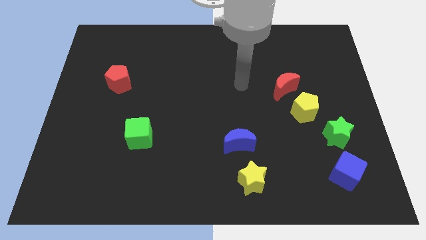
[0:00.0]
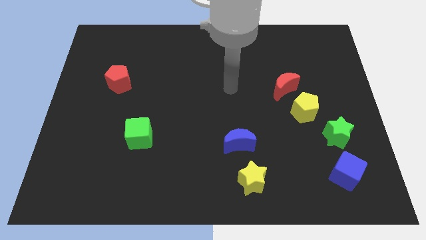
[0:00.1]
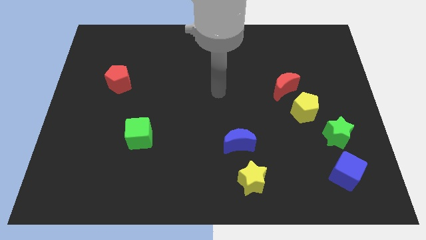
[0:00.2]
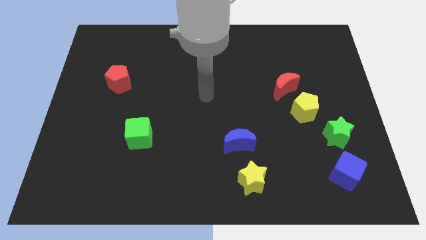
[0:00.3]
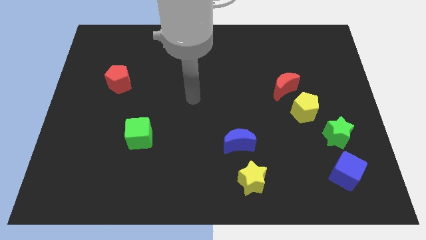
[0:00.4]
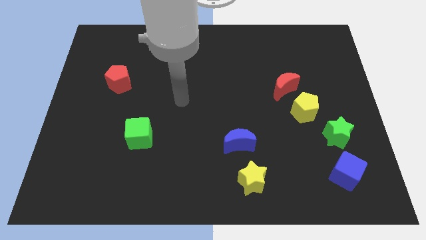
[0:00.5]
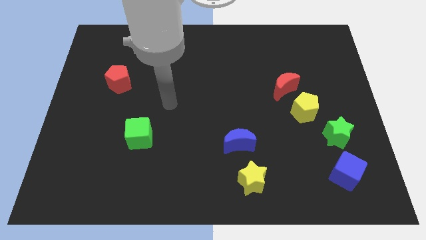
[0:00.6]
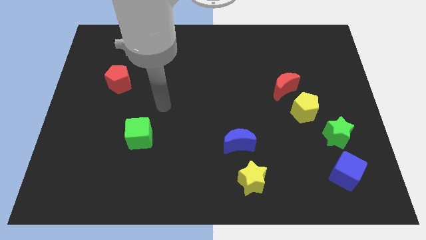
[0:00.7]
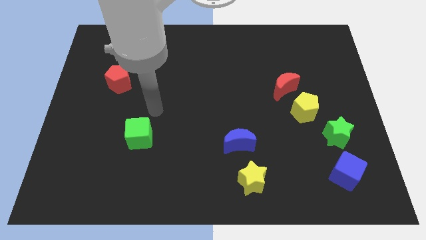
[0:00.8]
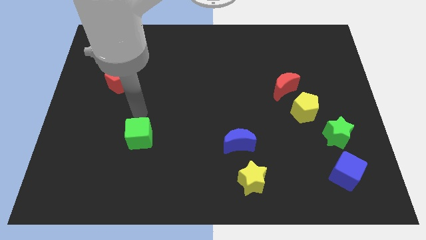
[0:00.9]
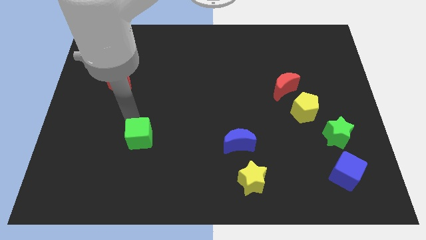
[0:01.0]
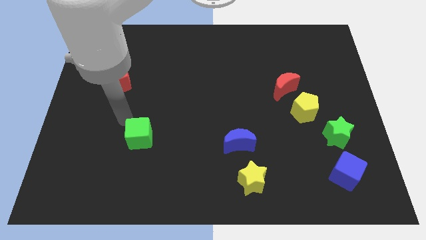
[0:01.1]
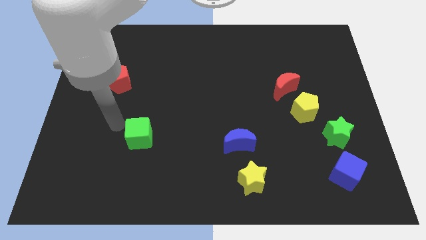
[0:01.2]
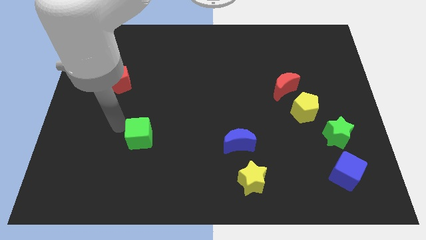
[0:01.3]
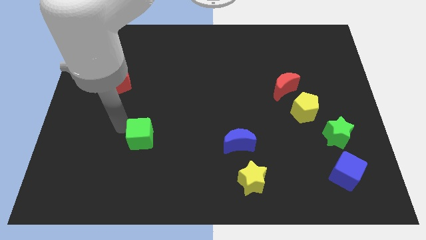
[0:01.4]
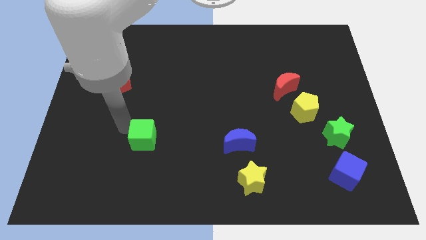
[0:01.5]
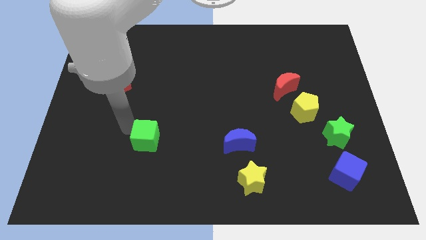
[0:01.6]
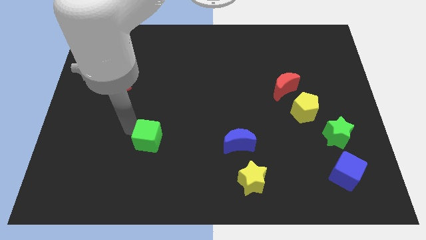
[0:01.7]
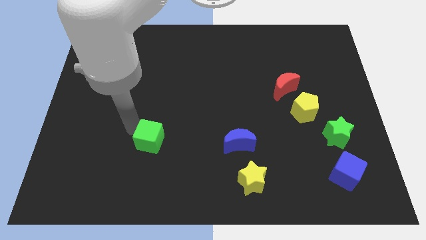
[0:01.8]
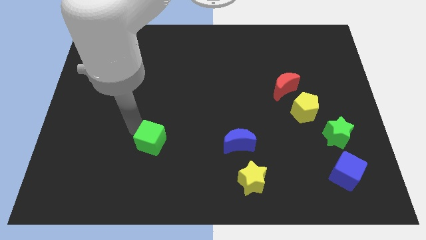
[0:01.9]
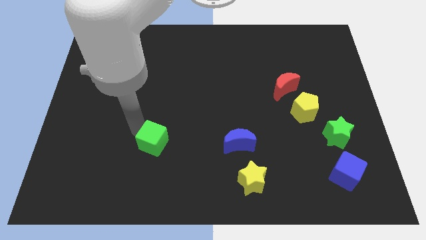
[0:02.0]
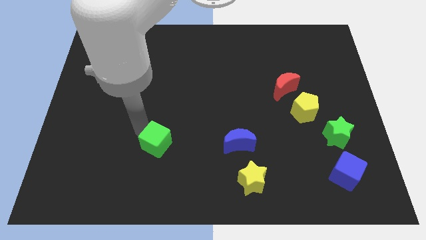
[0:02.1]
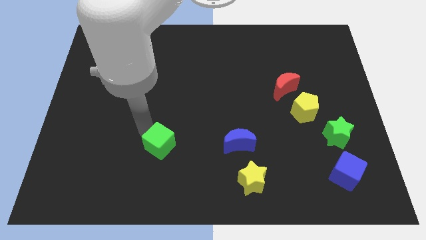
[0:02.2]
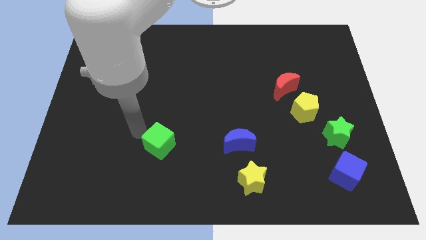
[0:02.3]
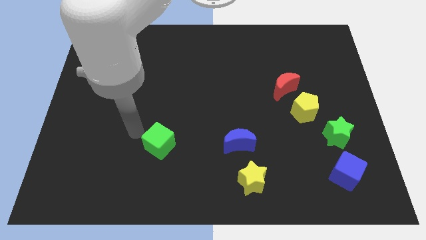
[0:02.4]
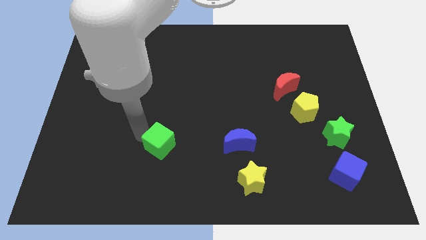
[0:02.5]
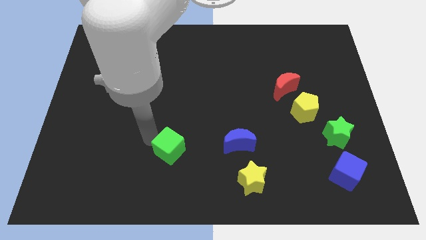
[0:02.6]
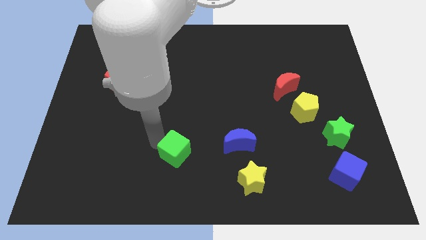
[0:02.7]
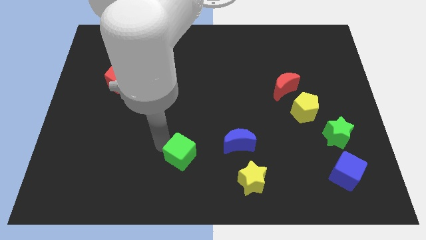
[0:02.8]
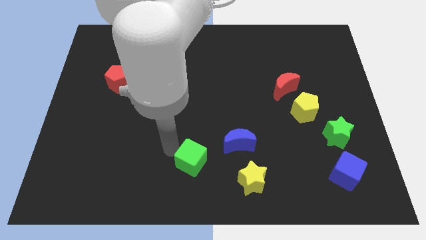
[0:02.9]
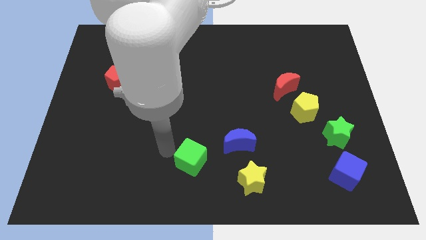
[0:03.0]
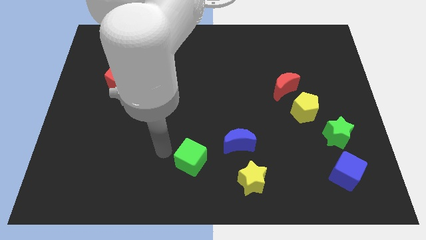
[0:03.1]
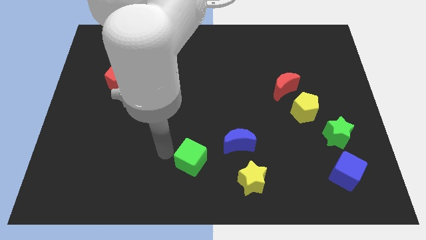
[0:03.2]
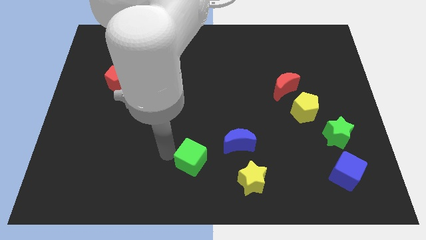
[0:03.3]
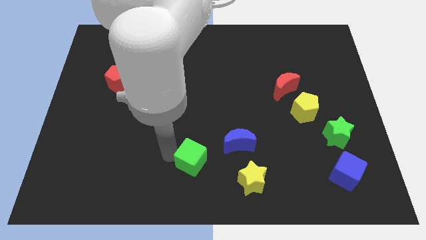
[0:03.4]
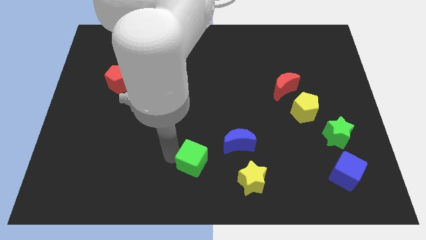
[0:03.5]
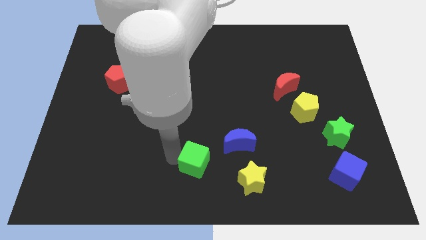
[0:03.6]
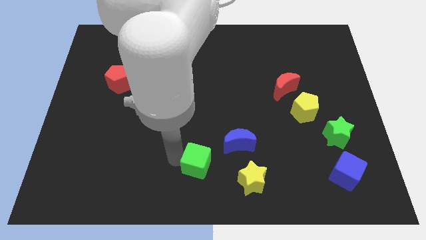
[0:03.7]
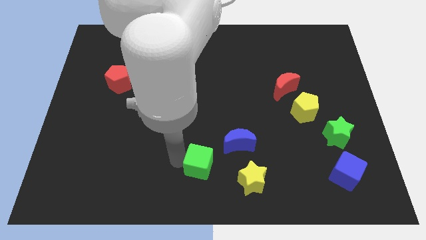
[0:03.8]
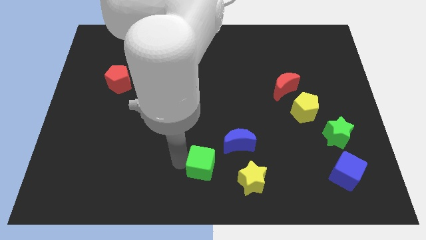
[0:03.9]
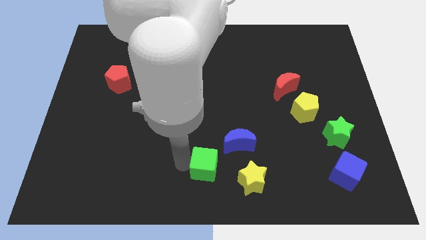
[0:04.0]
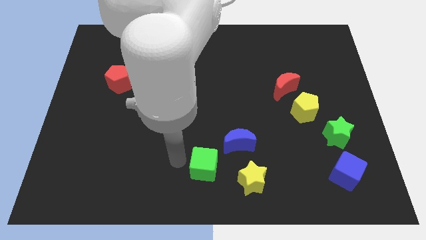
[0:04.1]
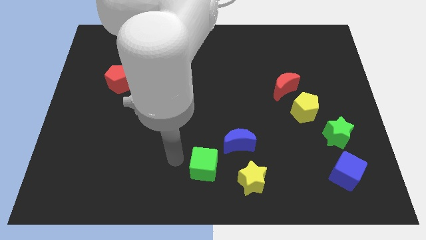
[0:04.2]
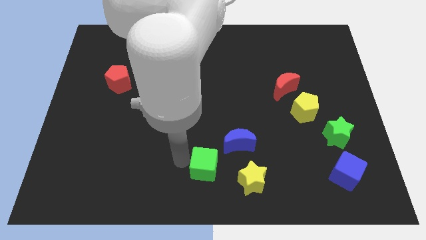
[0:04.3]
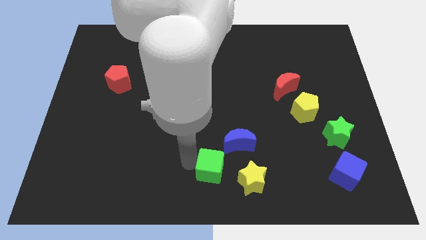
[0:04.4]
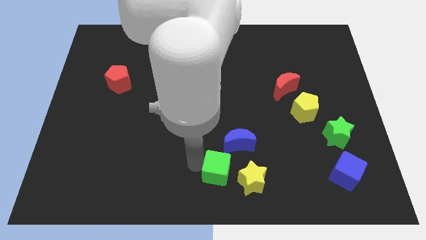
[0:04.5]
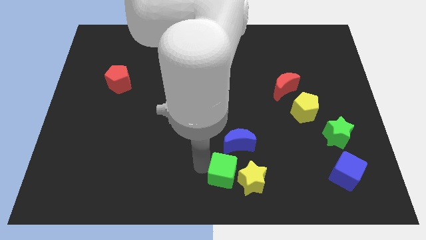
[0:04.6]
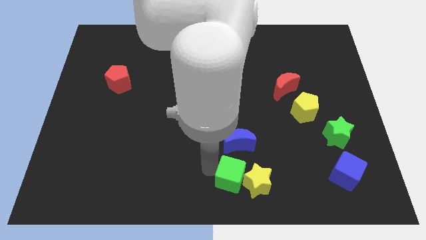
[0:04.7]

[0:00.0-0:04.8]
put the green cube to the yellow star

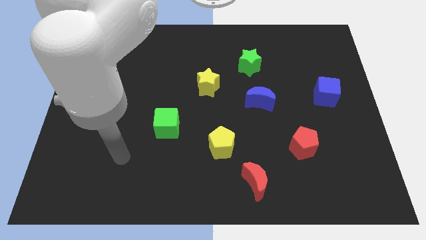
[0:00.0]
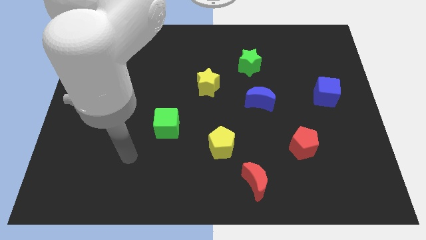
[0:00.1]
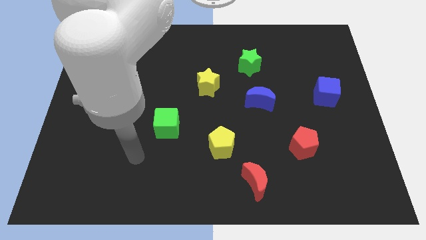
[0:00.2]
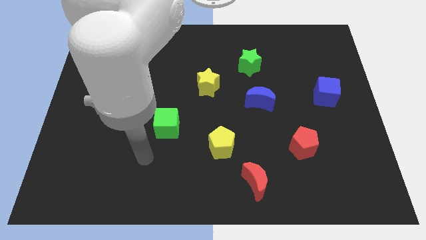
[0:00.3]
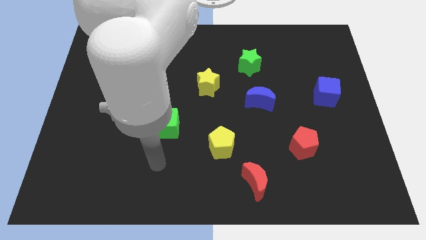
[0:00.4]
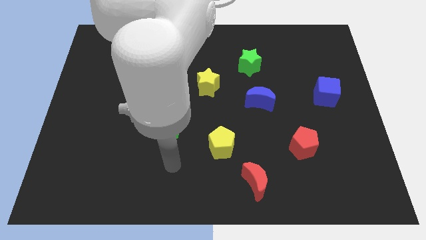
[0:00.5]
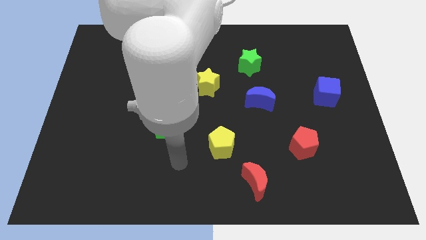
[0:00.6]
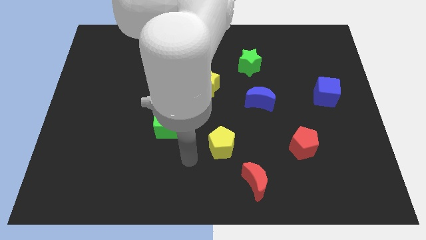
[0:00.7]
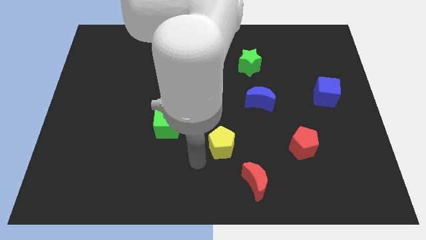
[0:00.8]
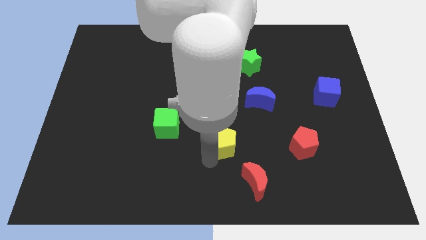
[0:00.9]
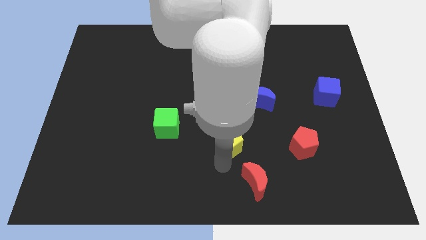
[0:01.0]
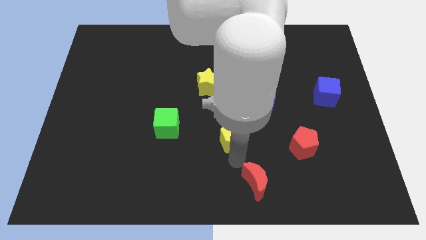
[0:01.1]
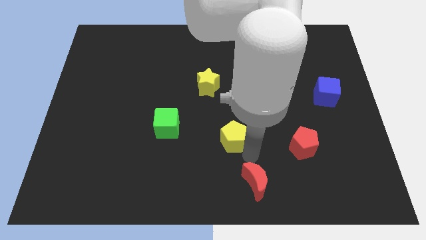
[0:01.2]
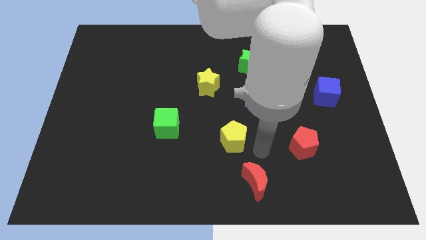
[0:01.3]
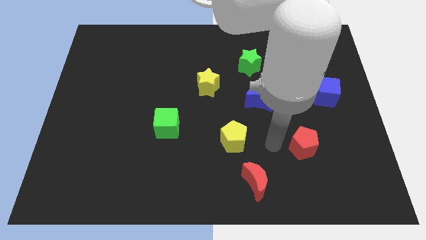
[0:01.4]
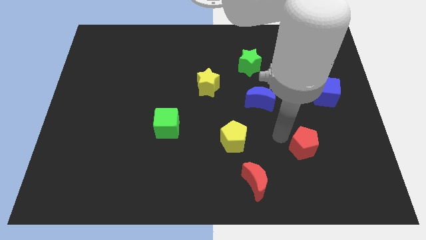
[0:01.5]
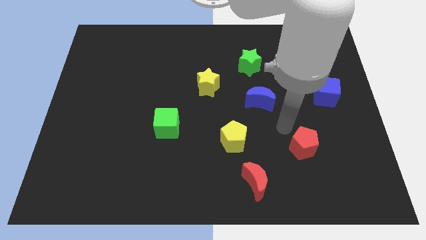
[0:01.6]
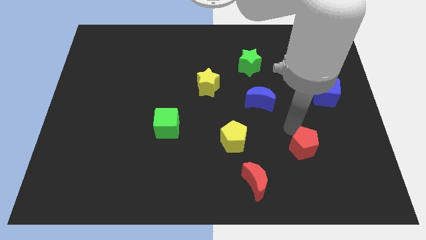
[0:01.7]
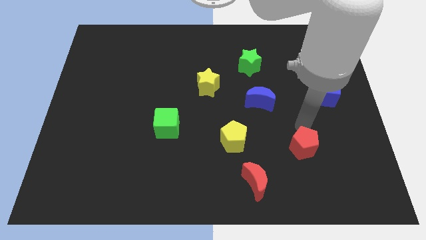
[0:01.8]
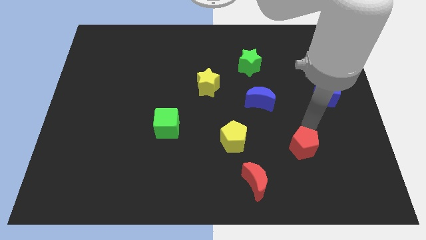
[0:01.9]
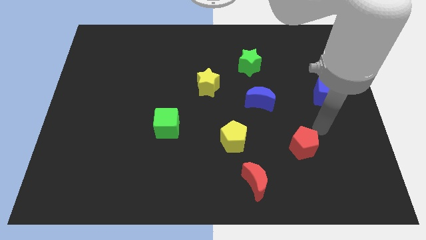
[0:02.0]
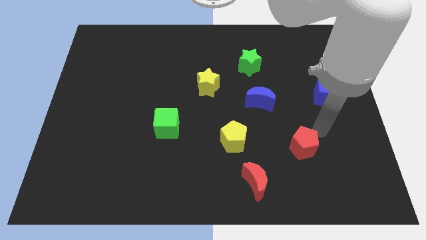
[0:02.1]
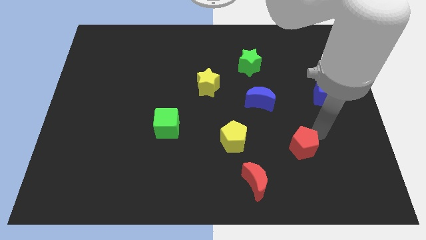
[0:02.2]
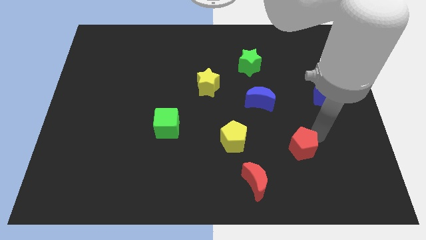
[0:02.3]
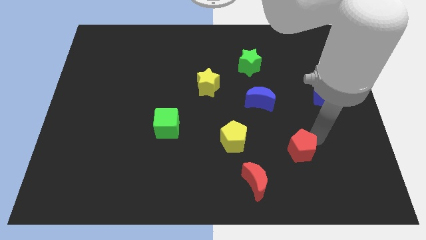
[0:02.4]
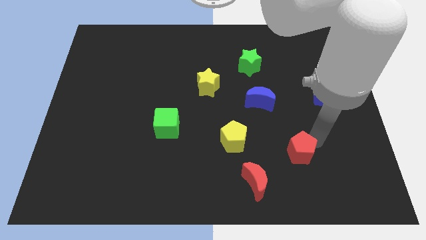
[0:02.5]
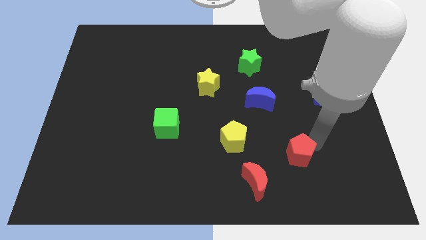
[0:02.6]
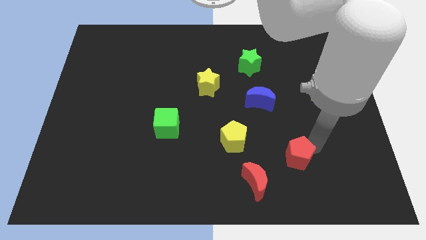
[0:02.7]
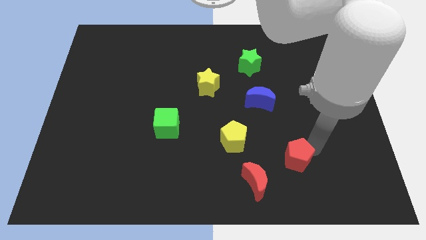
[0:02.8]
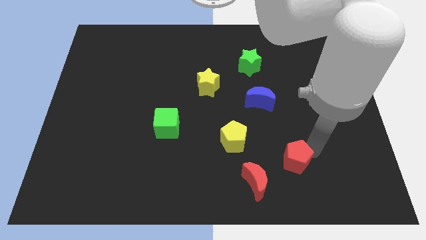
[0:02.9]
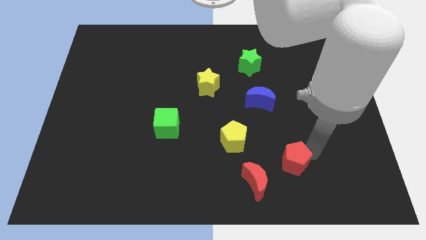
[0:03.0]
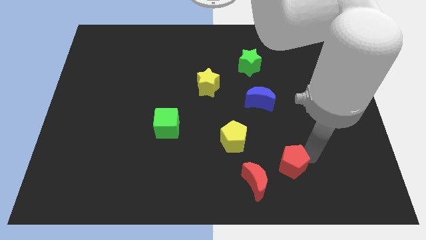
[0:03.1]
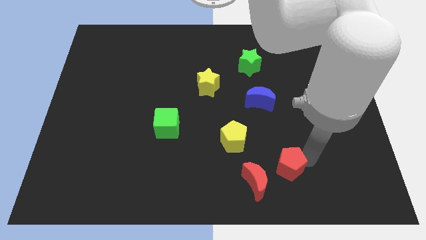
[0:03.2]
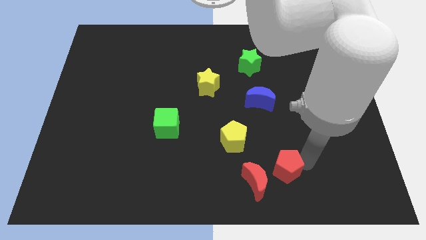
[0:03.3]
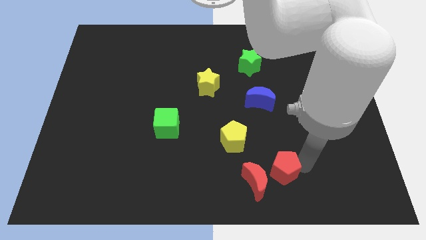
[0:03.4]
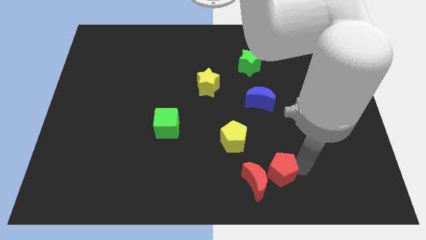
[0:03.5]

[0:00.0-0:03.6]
move the red pentagon to the red moon
